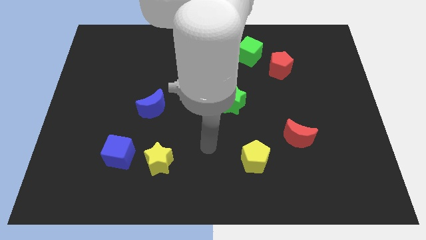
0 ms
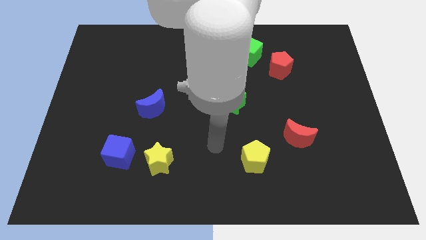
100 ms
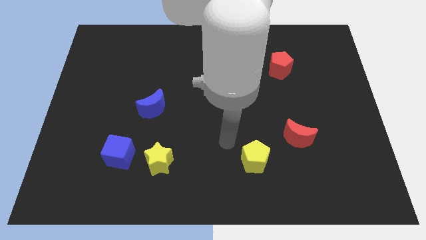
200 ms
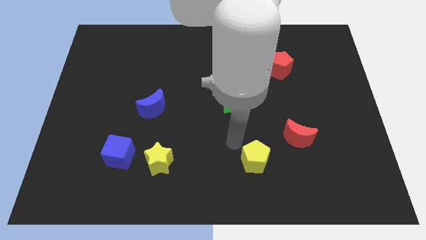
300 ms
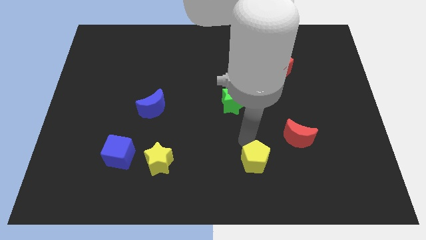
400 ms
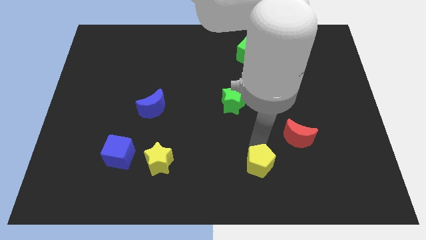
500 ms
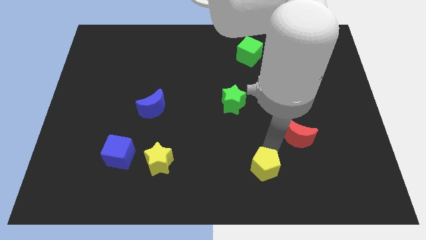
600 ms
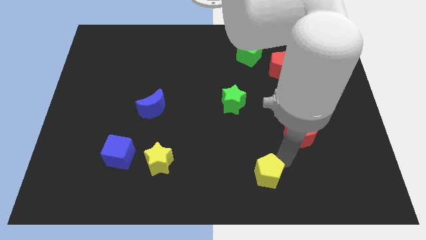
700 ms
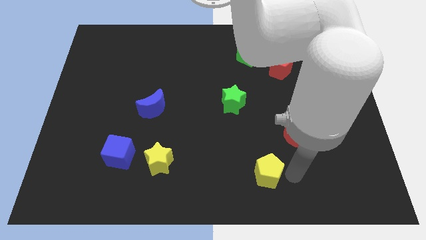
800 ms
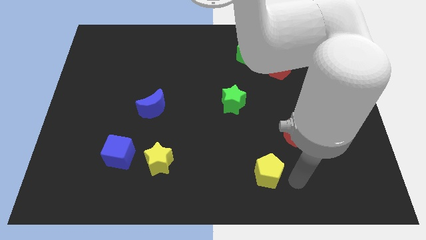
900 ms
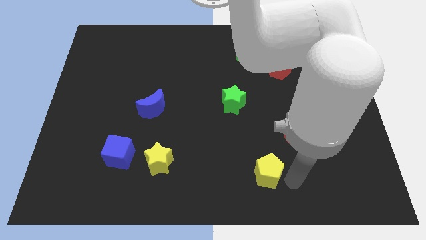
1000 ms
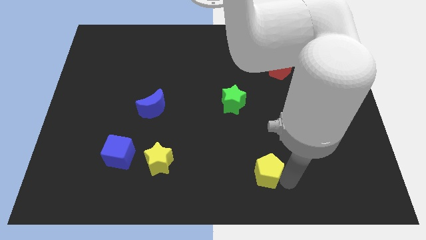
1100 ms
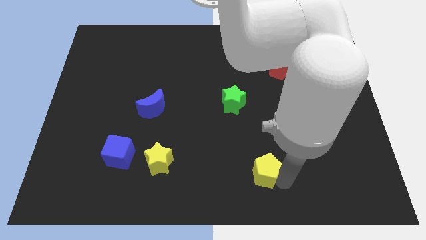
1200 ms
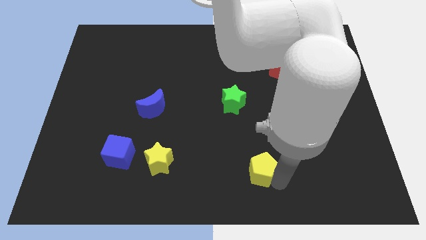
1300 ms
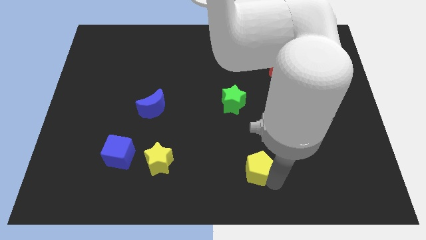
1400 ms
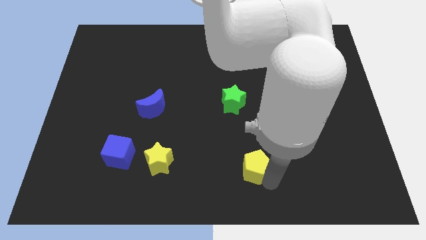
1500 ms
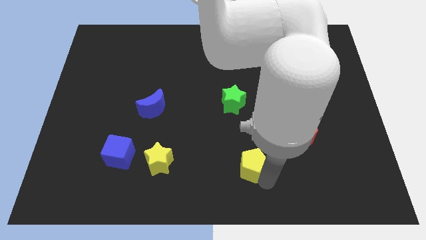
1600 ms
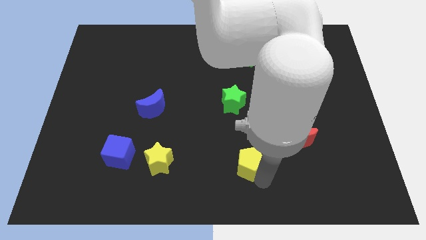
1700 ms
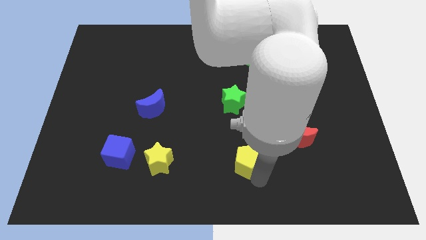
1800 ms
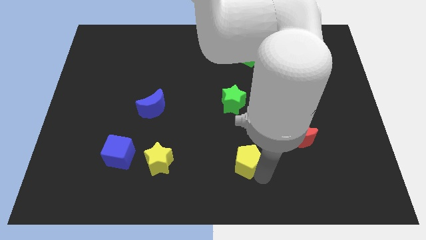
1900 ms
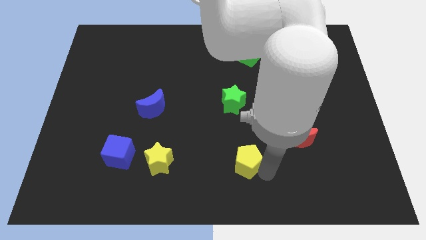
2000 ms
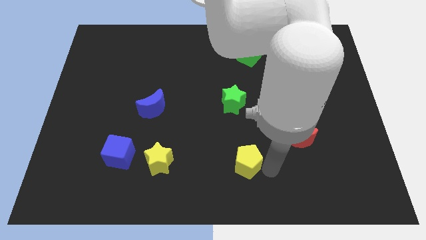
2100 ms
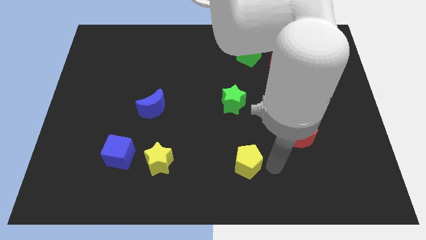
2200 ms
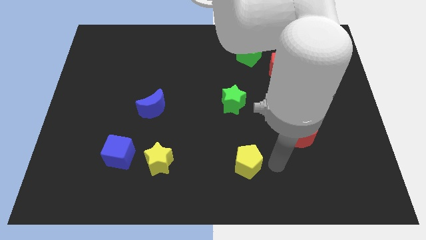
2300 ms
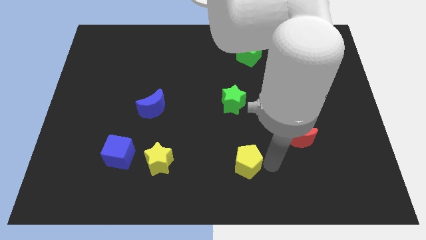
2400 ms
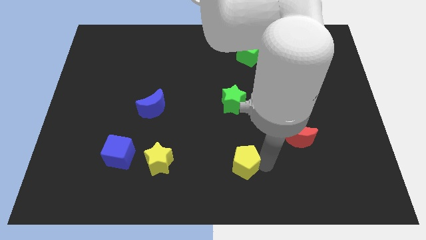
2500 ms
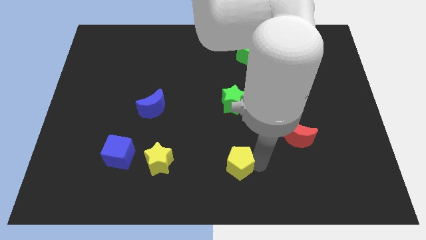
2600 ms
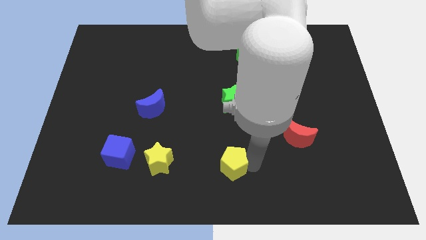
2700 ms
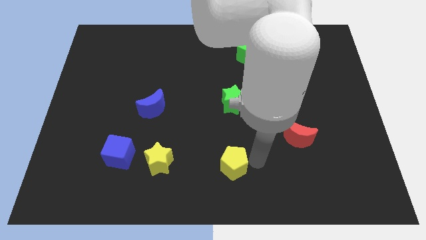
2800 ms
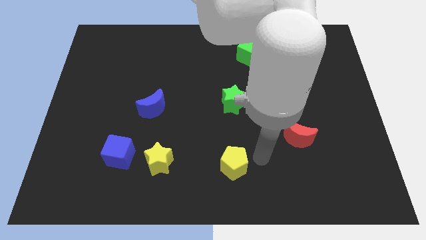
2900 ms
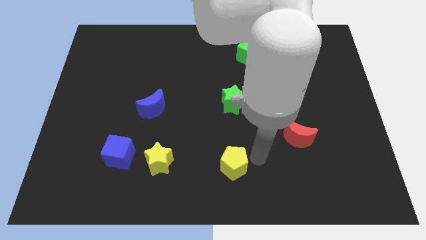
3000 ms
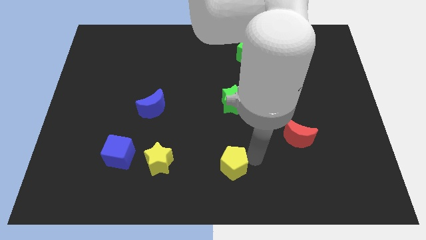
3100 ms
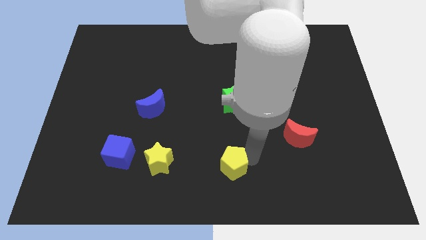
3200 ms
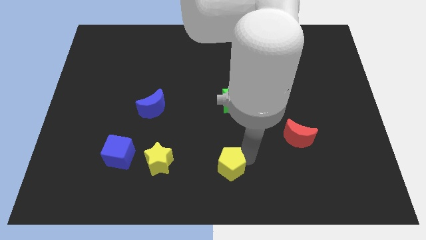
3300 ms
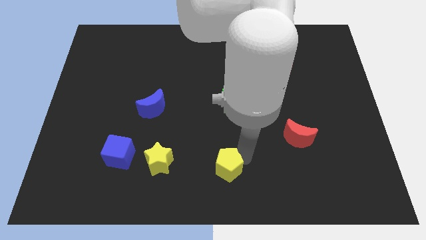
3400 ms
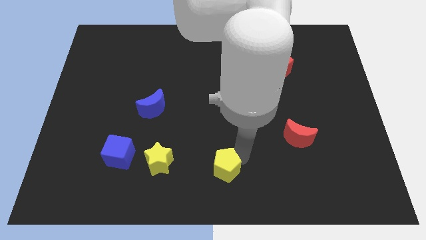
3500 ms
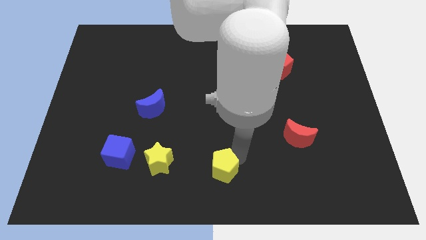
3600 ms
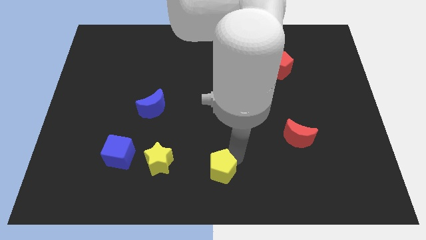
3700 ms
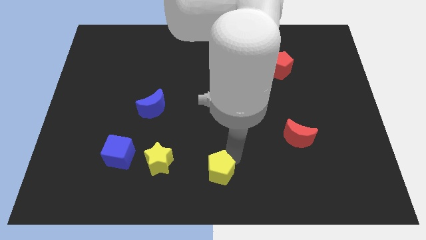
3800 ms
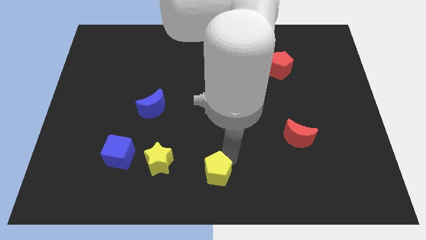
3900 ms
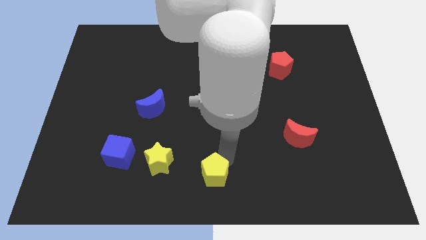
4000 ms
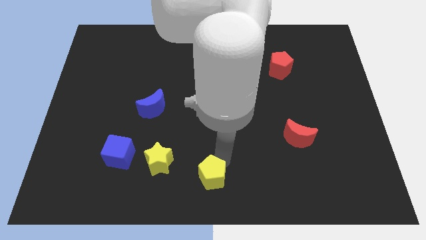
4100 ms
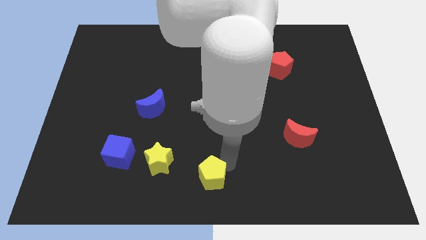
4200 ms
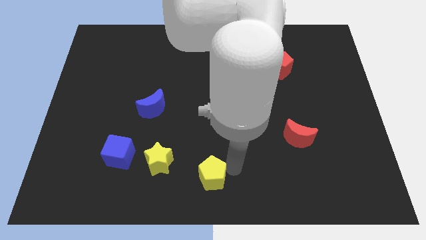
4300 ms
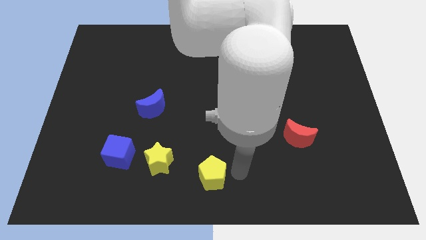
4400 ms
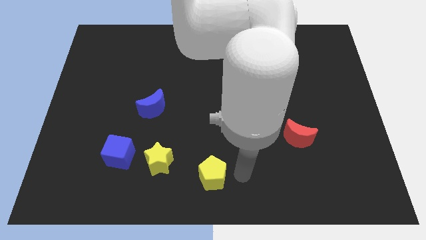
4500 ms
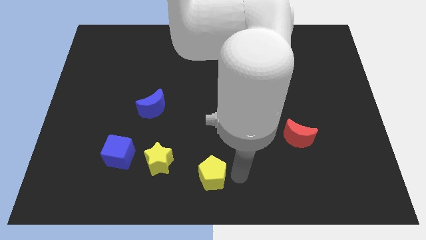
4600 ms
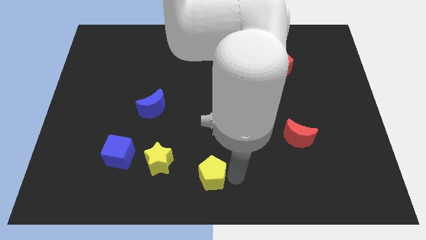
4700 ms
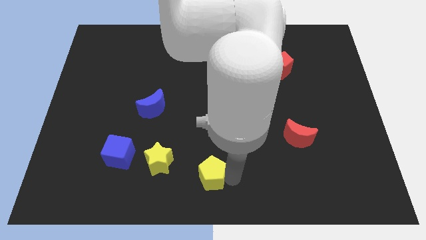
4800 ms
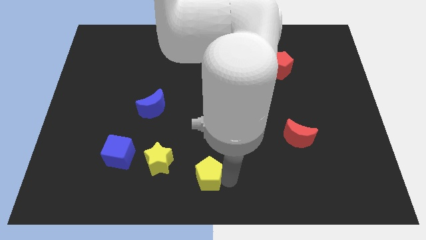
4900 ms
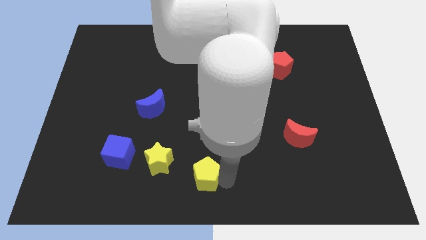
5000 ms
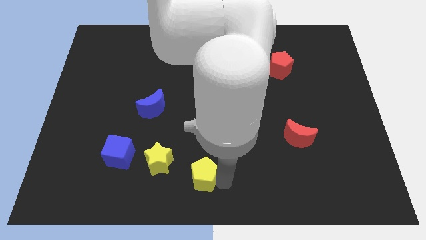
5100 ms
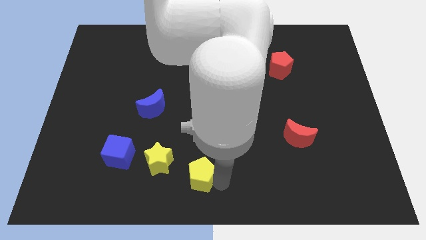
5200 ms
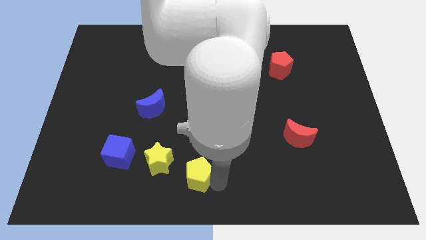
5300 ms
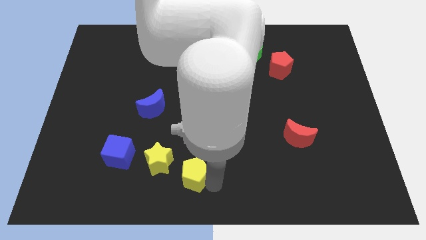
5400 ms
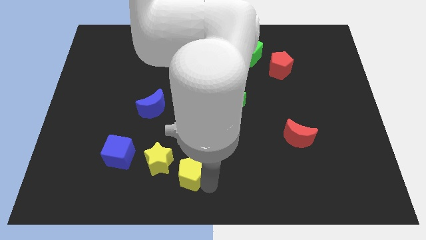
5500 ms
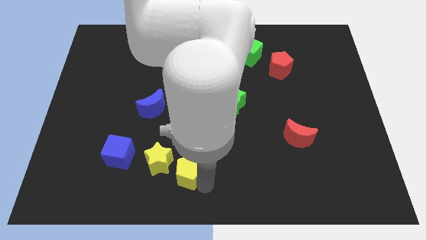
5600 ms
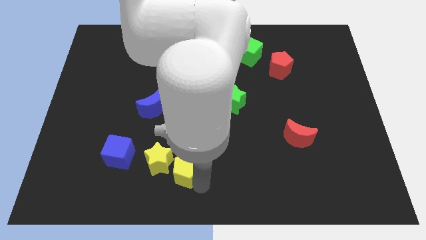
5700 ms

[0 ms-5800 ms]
put the yellow pentagon to the yellow star

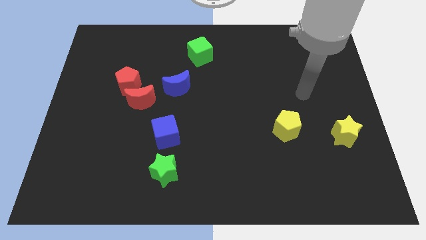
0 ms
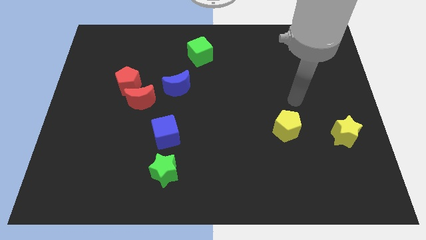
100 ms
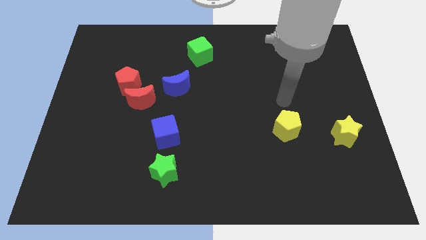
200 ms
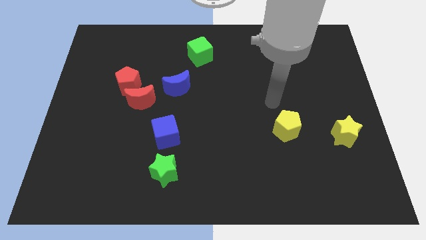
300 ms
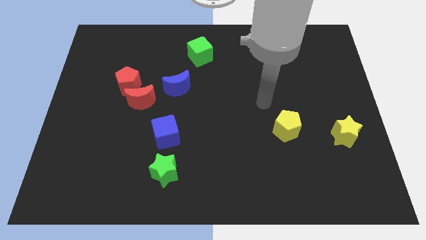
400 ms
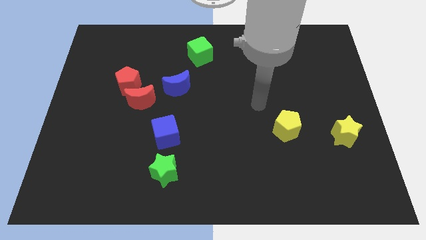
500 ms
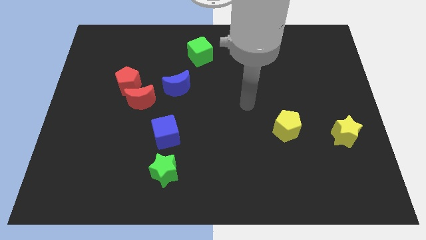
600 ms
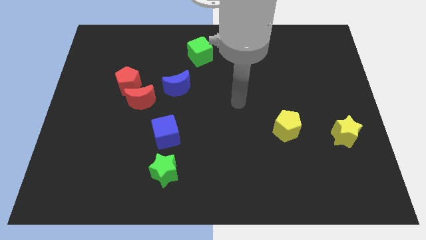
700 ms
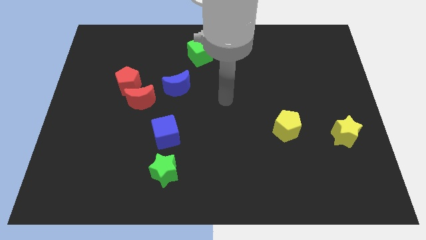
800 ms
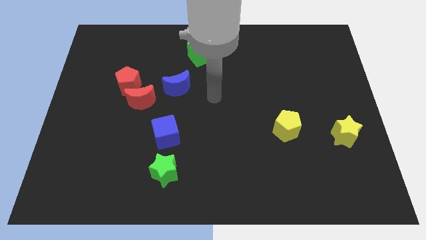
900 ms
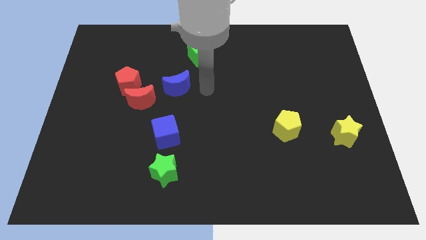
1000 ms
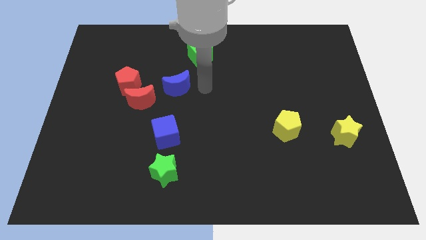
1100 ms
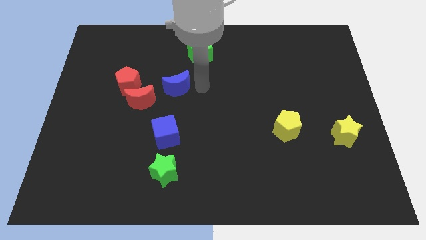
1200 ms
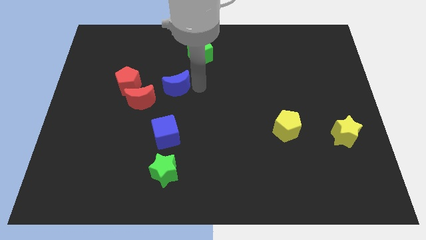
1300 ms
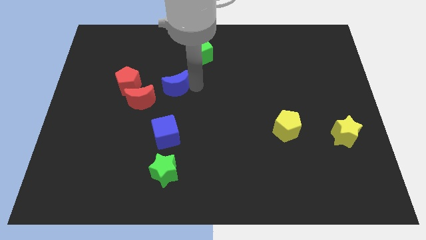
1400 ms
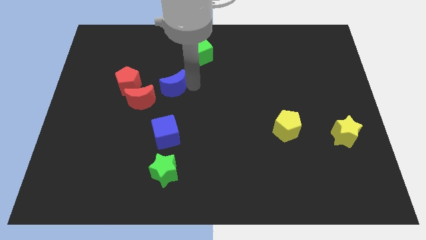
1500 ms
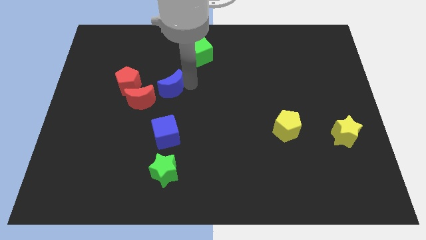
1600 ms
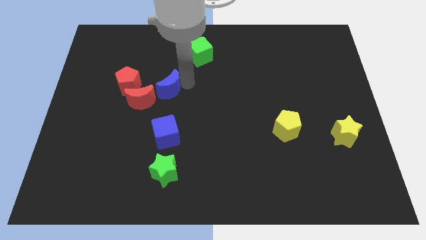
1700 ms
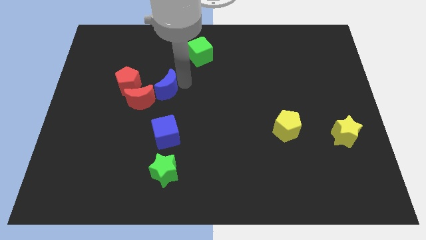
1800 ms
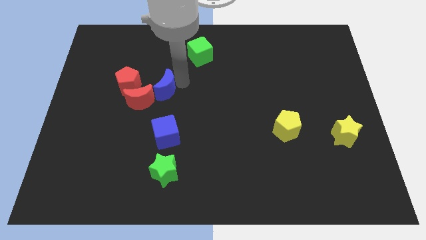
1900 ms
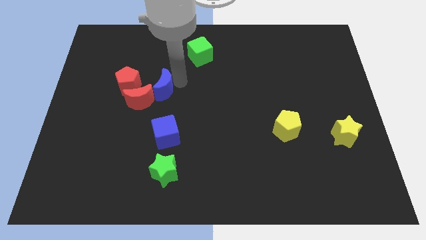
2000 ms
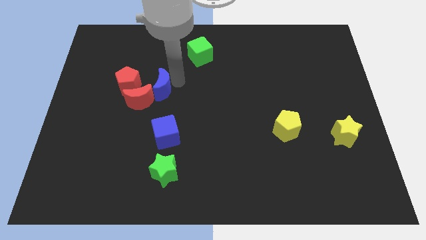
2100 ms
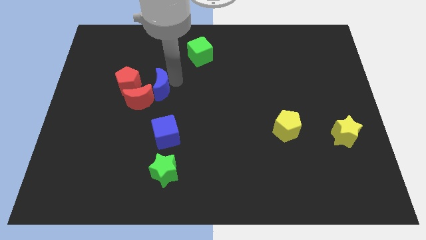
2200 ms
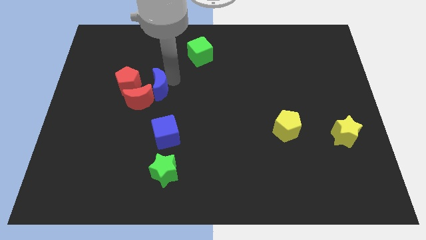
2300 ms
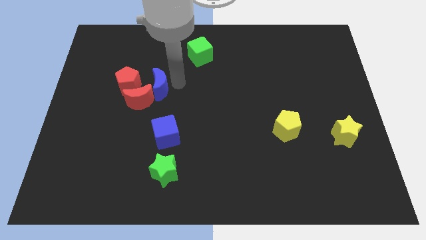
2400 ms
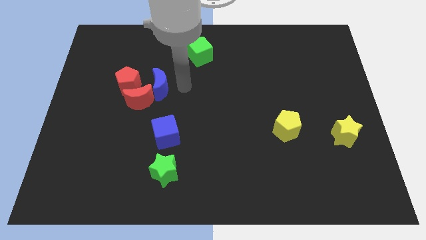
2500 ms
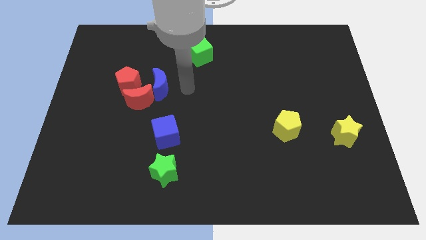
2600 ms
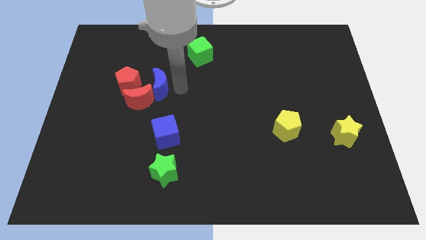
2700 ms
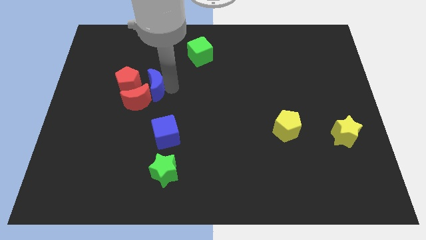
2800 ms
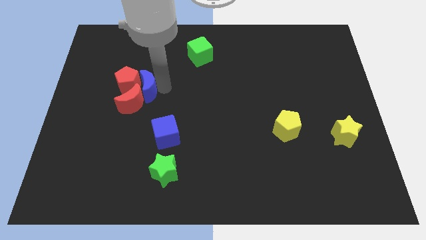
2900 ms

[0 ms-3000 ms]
move the blue moon towards the red pentagon
